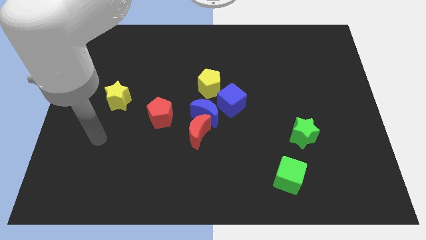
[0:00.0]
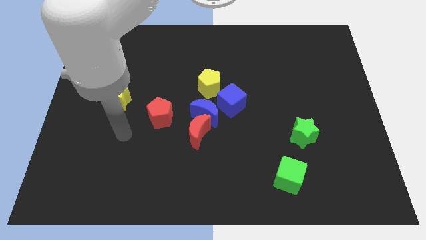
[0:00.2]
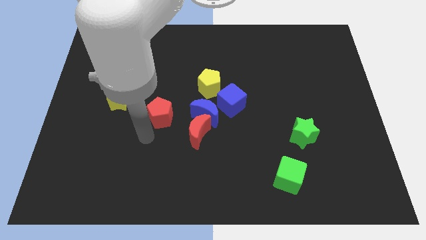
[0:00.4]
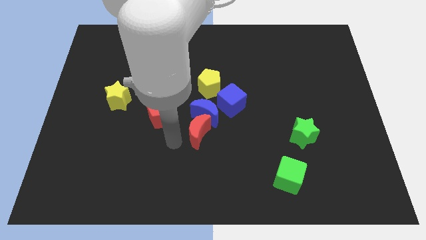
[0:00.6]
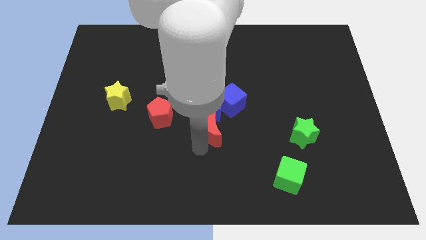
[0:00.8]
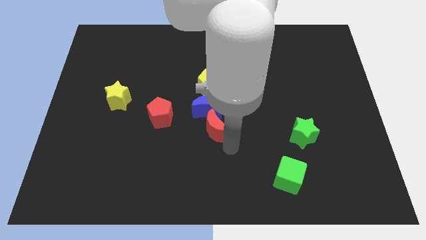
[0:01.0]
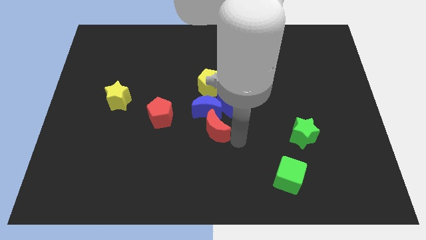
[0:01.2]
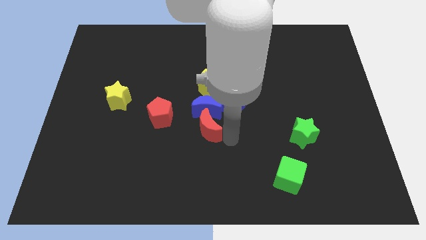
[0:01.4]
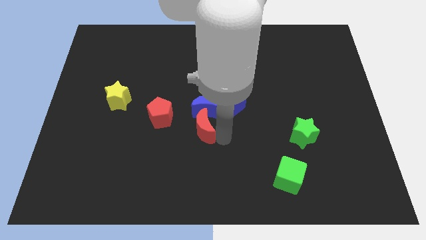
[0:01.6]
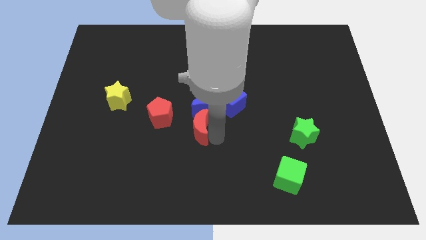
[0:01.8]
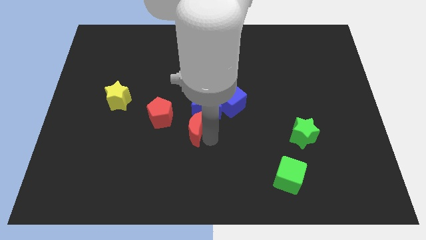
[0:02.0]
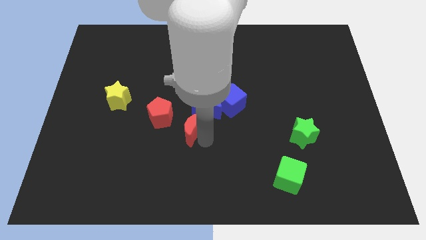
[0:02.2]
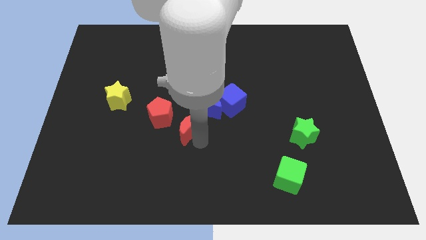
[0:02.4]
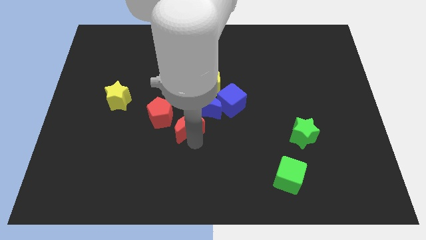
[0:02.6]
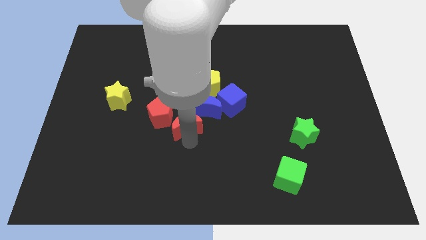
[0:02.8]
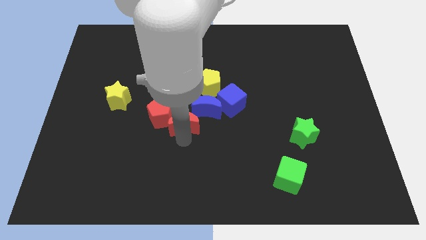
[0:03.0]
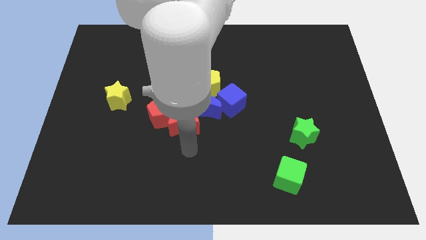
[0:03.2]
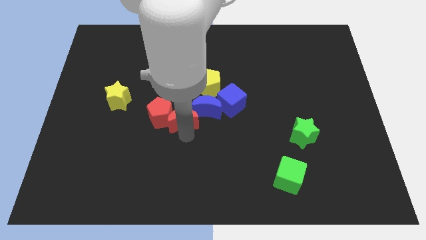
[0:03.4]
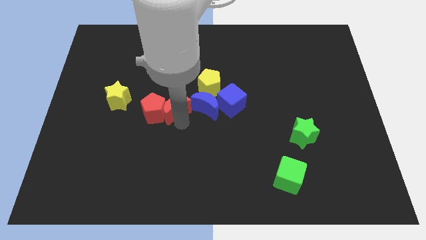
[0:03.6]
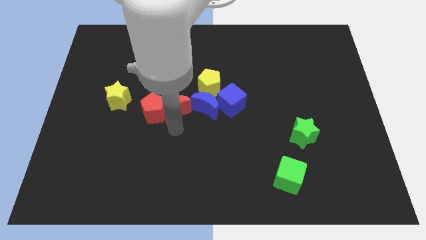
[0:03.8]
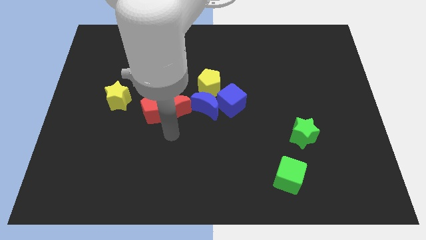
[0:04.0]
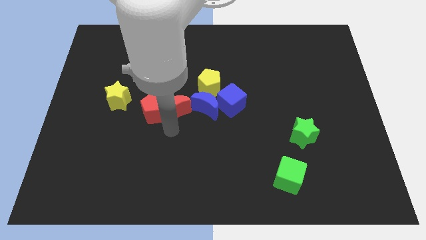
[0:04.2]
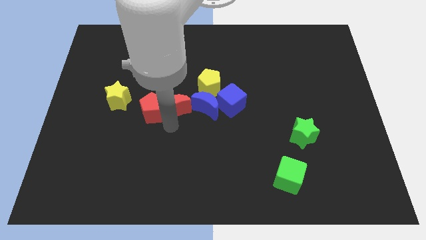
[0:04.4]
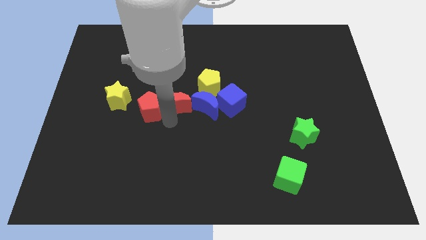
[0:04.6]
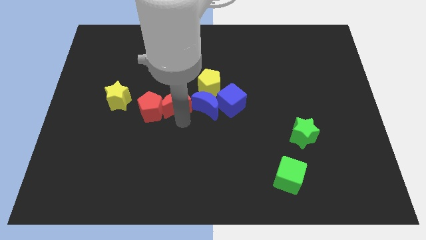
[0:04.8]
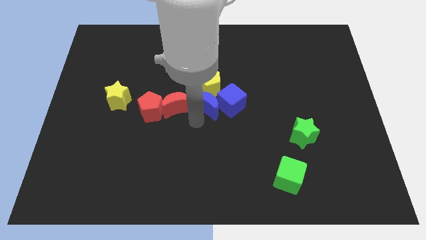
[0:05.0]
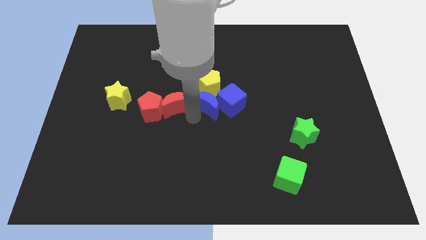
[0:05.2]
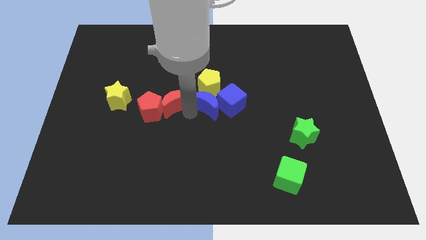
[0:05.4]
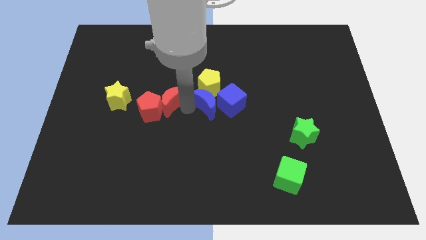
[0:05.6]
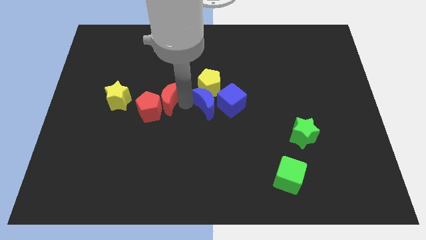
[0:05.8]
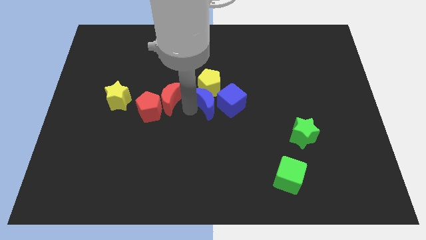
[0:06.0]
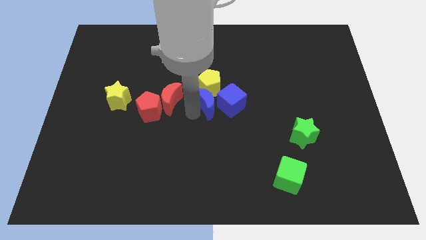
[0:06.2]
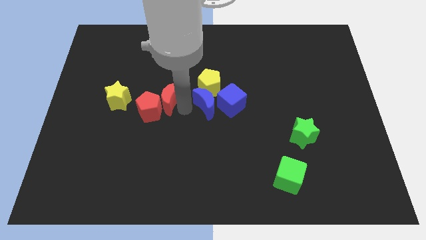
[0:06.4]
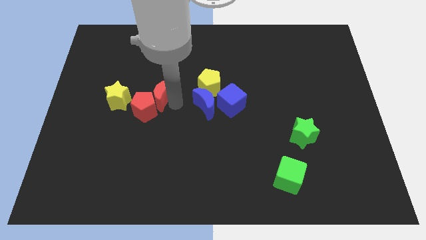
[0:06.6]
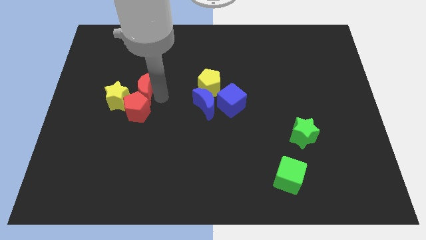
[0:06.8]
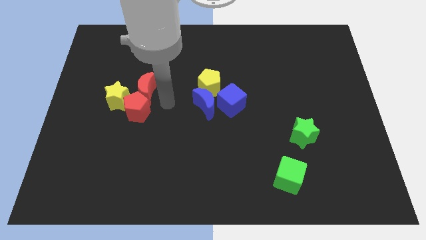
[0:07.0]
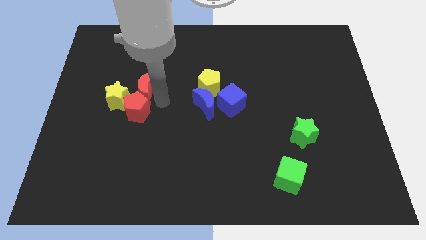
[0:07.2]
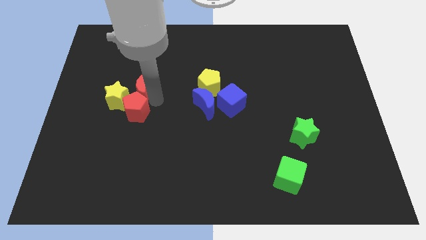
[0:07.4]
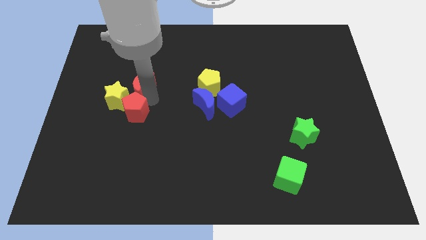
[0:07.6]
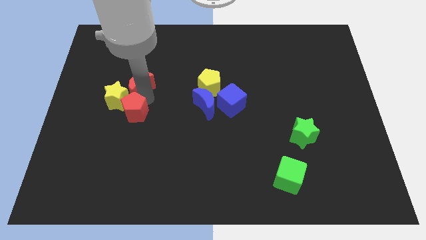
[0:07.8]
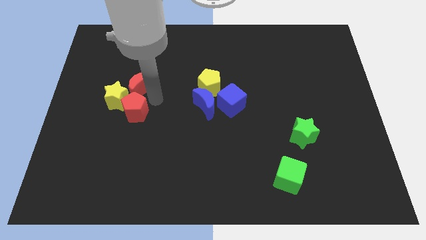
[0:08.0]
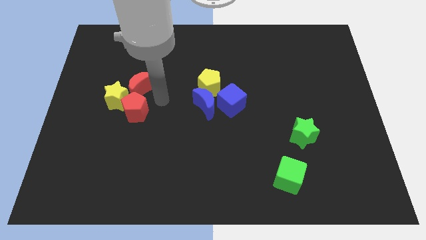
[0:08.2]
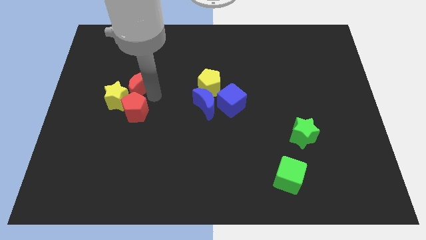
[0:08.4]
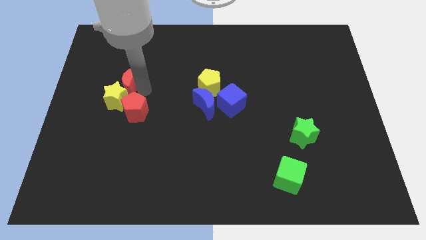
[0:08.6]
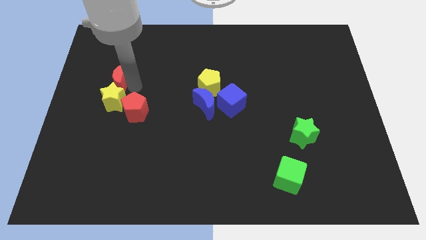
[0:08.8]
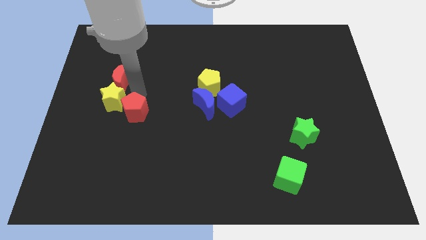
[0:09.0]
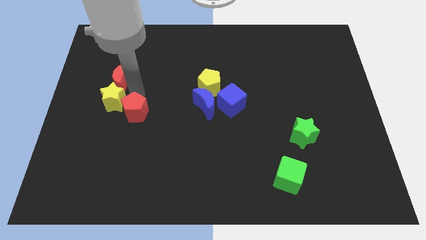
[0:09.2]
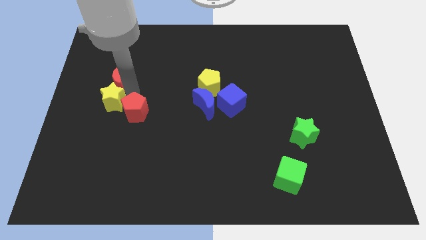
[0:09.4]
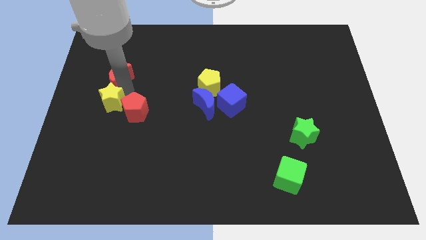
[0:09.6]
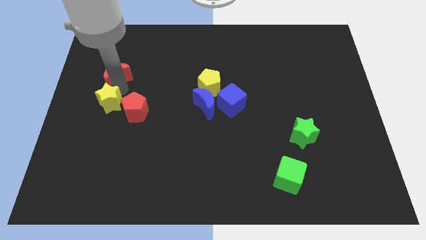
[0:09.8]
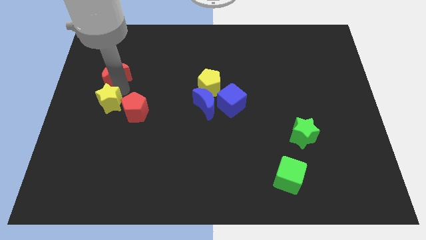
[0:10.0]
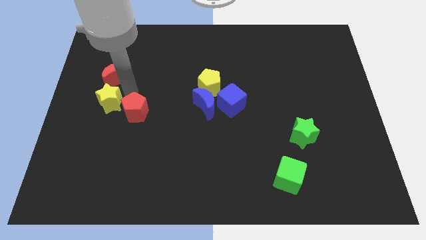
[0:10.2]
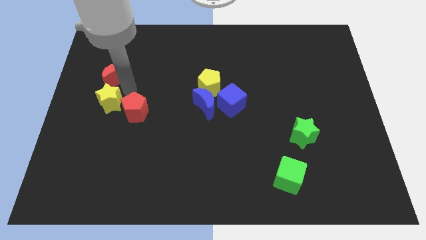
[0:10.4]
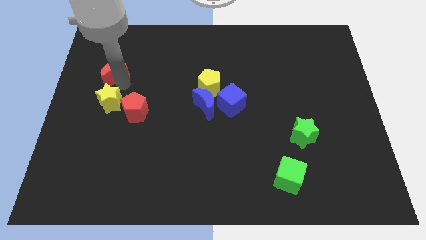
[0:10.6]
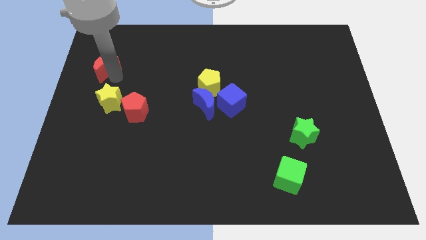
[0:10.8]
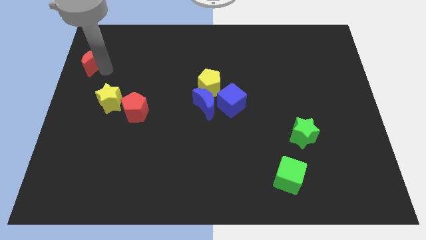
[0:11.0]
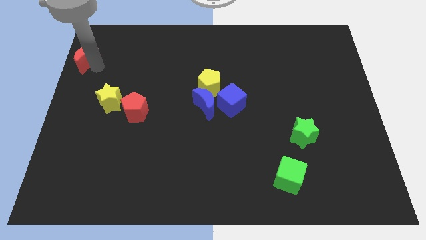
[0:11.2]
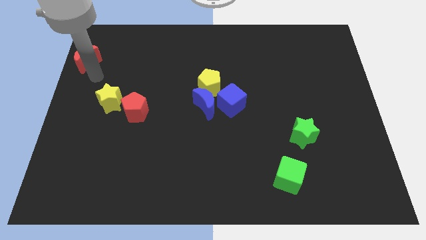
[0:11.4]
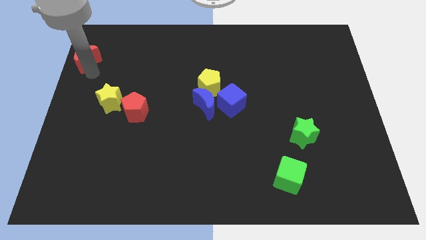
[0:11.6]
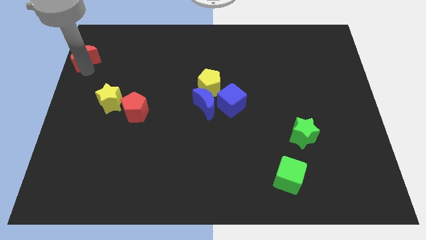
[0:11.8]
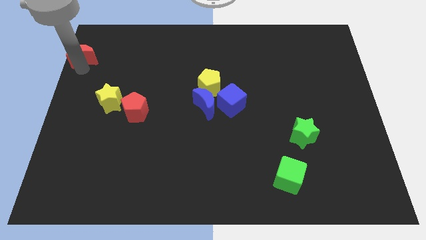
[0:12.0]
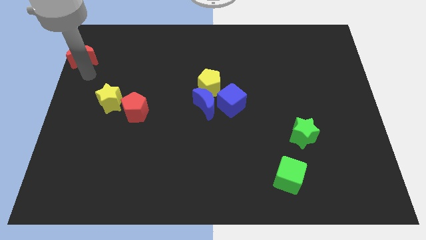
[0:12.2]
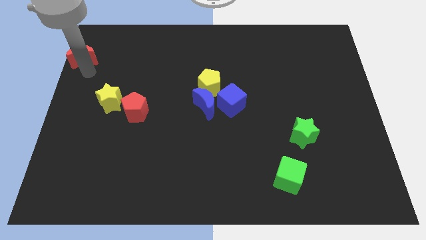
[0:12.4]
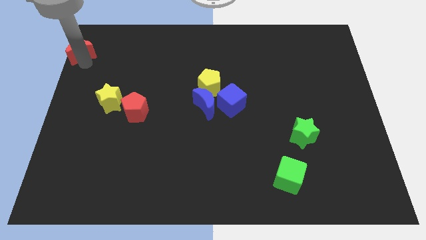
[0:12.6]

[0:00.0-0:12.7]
move the red moon to the top left

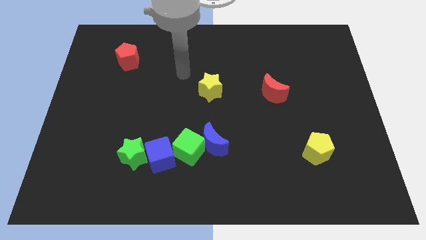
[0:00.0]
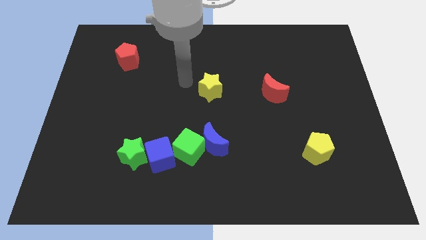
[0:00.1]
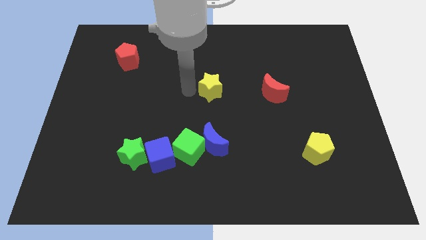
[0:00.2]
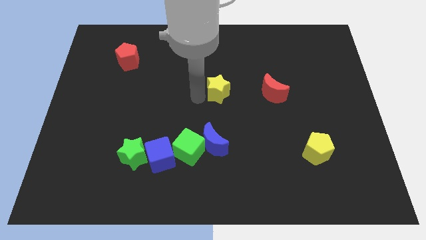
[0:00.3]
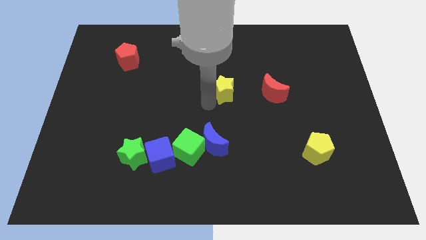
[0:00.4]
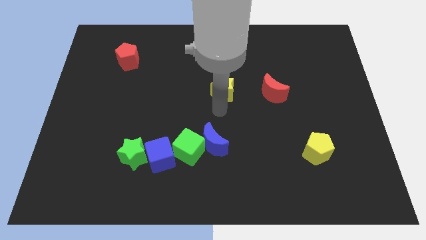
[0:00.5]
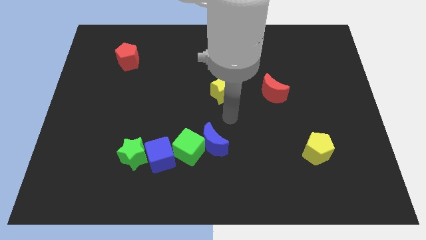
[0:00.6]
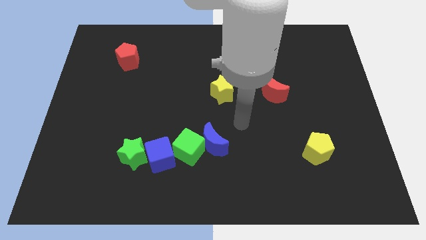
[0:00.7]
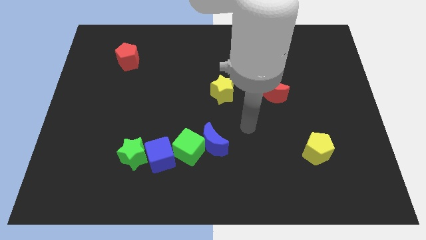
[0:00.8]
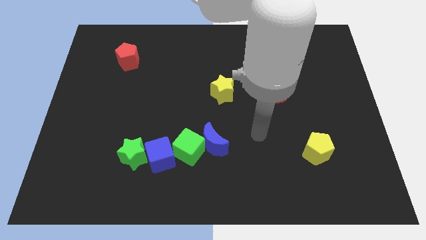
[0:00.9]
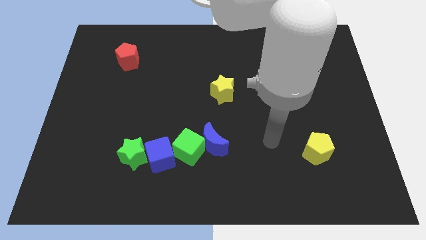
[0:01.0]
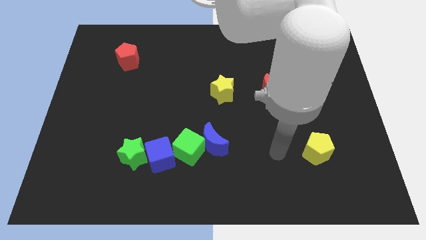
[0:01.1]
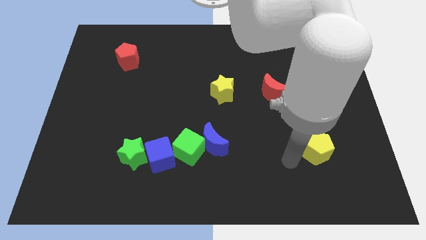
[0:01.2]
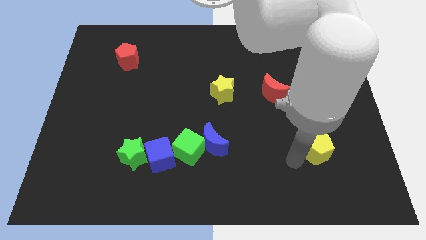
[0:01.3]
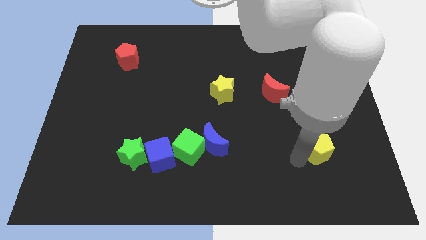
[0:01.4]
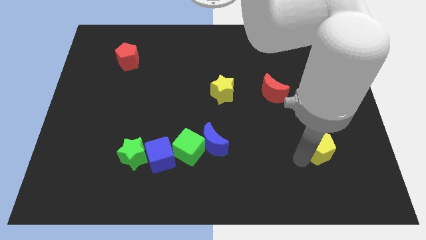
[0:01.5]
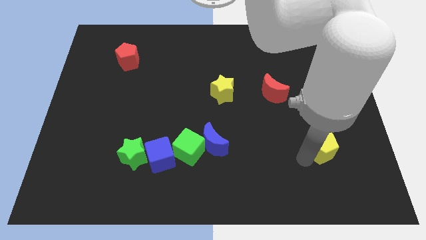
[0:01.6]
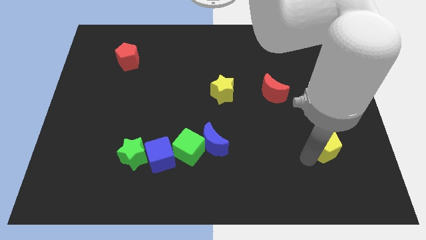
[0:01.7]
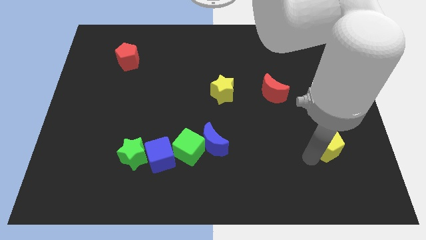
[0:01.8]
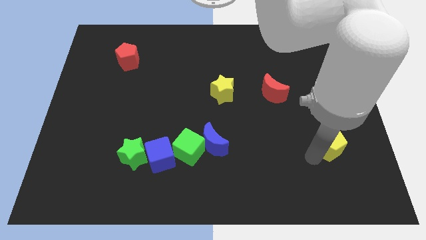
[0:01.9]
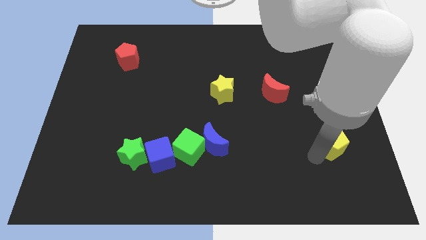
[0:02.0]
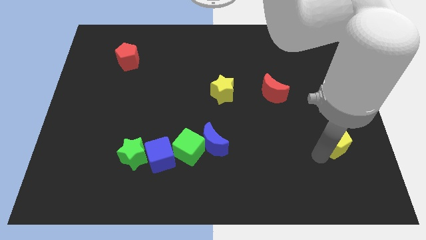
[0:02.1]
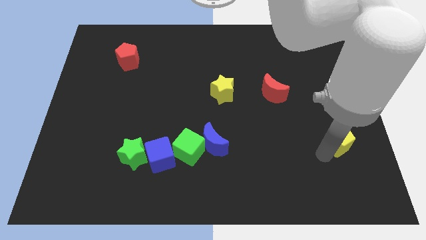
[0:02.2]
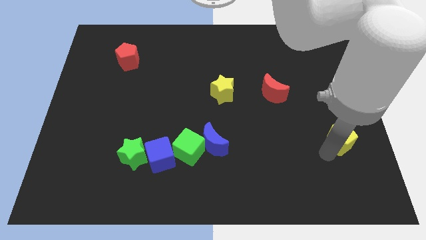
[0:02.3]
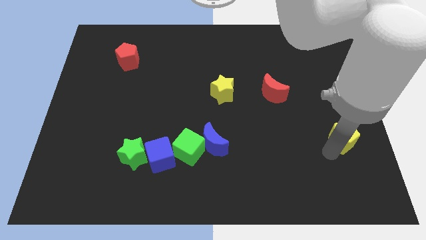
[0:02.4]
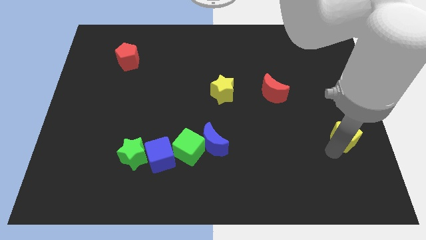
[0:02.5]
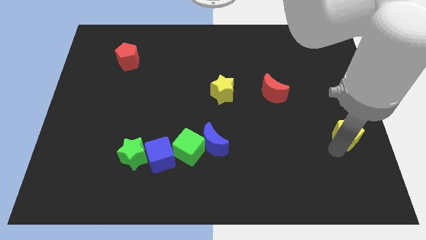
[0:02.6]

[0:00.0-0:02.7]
push the yellow pentagon to the center right
